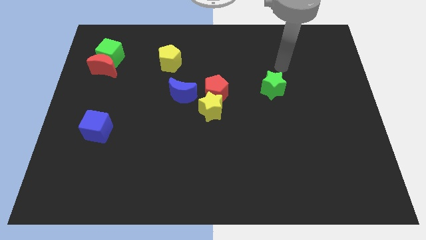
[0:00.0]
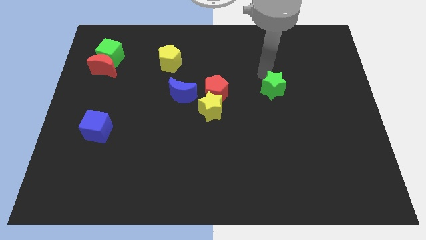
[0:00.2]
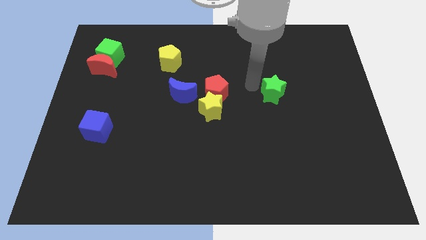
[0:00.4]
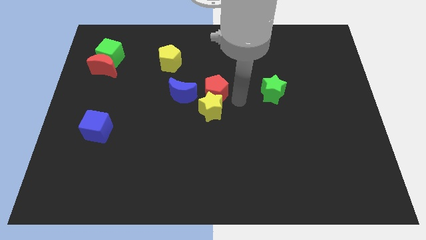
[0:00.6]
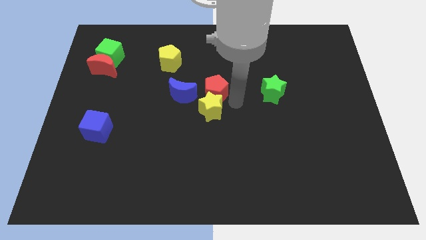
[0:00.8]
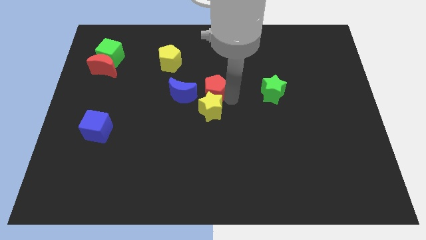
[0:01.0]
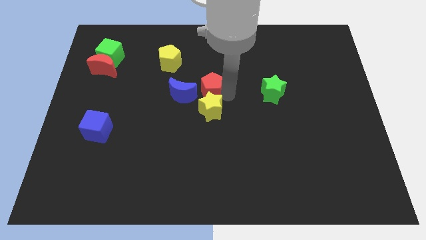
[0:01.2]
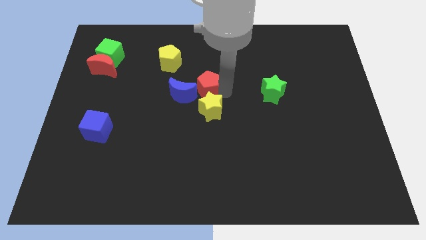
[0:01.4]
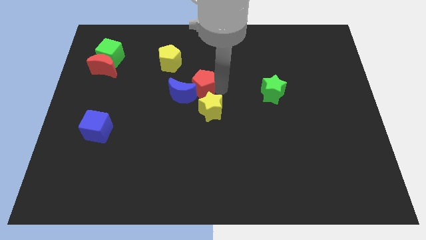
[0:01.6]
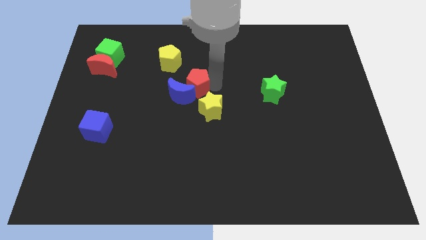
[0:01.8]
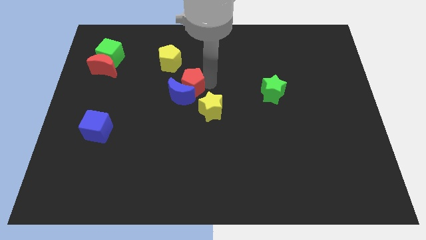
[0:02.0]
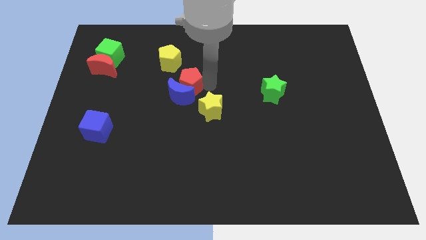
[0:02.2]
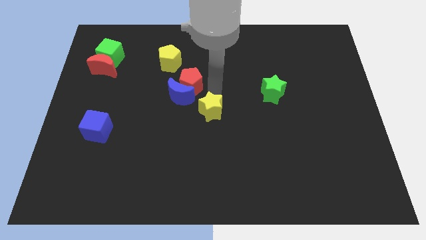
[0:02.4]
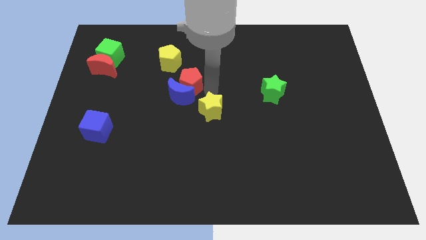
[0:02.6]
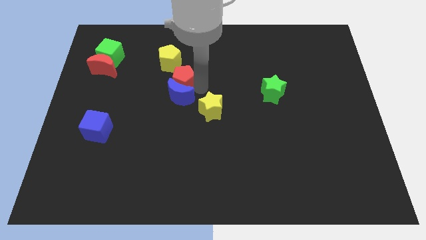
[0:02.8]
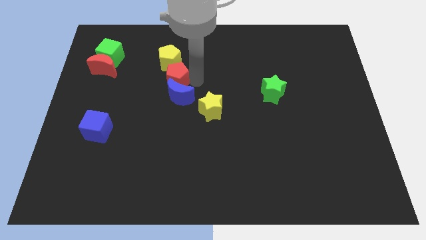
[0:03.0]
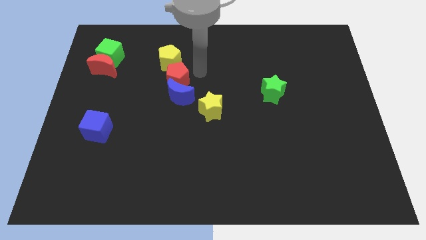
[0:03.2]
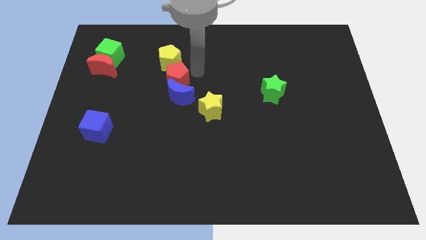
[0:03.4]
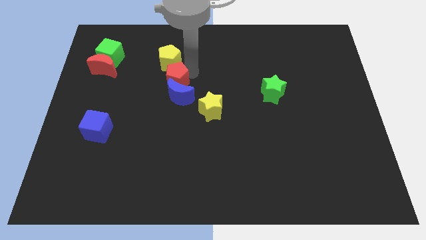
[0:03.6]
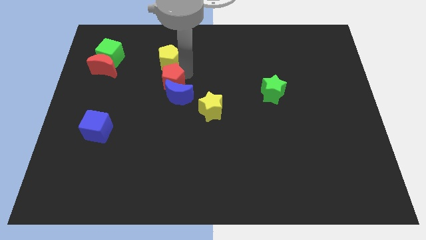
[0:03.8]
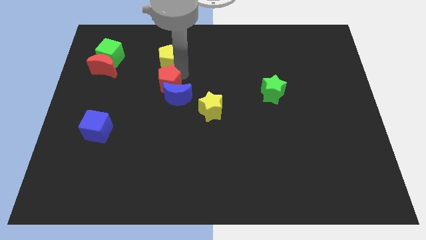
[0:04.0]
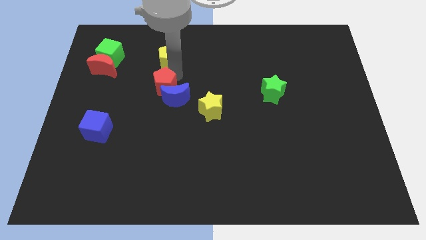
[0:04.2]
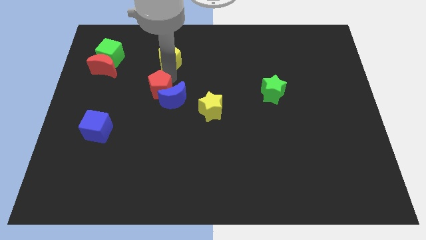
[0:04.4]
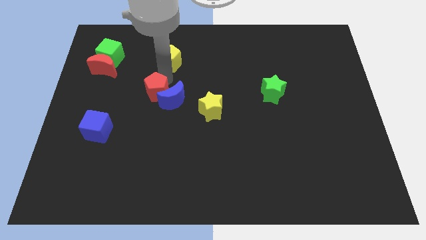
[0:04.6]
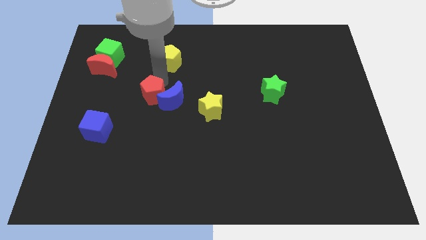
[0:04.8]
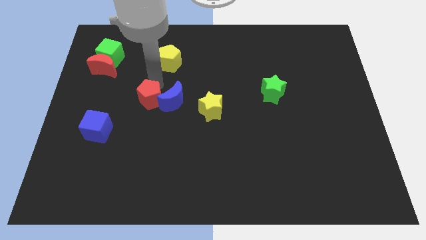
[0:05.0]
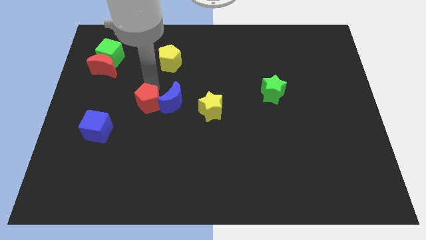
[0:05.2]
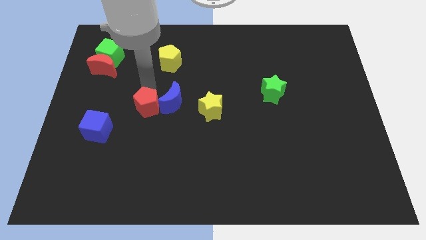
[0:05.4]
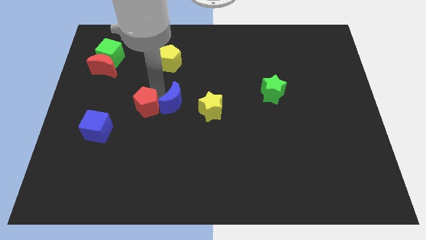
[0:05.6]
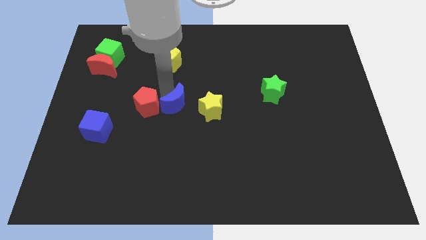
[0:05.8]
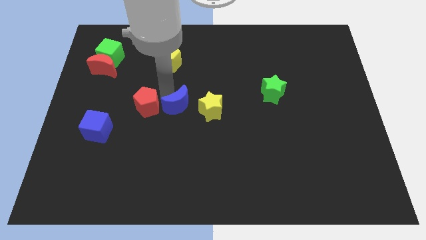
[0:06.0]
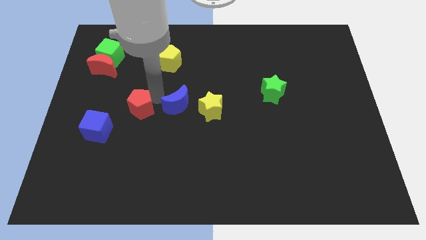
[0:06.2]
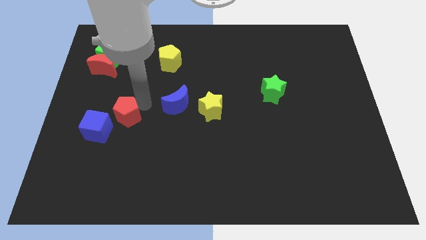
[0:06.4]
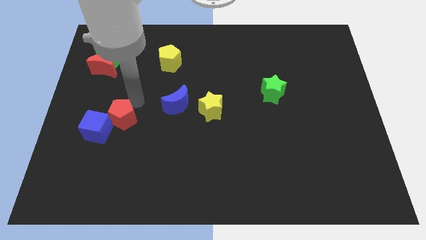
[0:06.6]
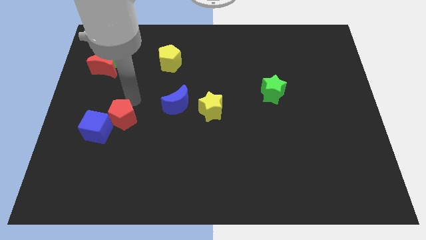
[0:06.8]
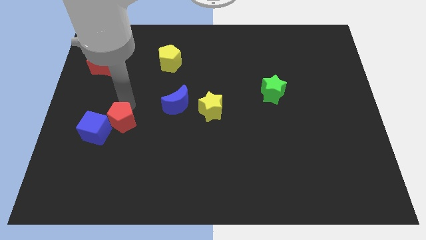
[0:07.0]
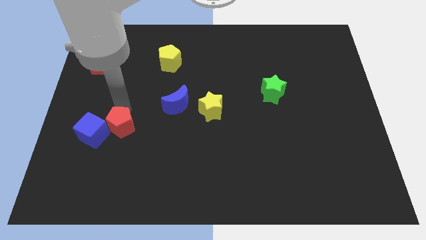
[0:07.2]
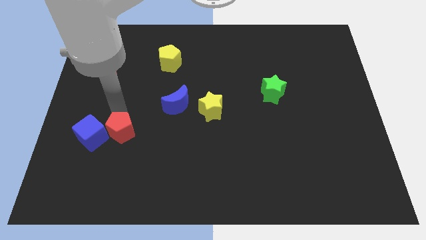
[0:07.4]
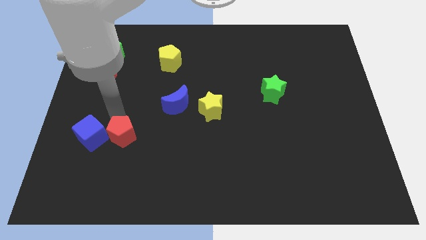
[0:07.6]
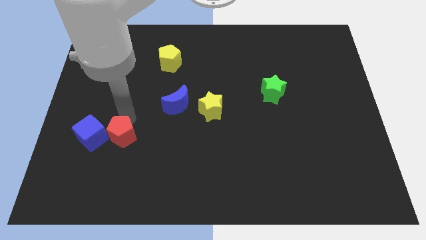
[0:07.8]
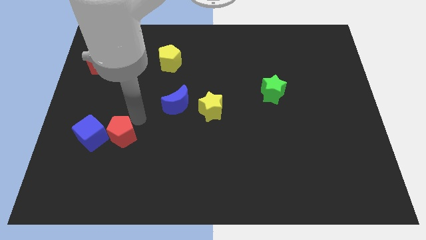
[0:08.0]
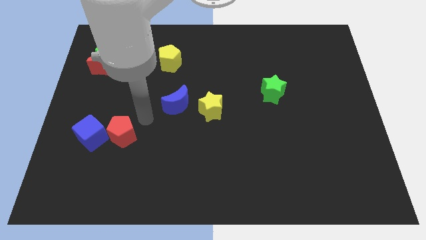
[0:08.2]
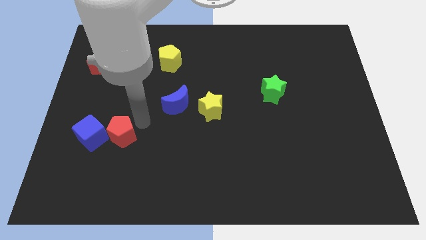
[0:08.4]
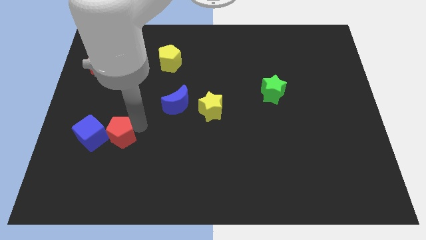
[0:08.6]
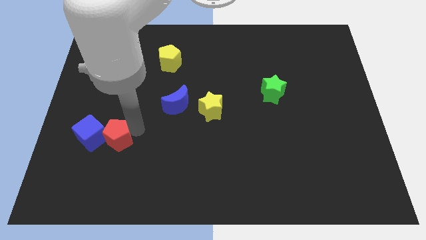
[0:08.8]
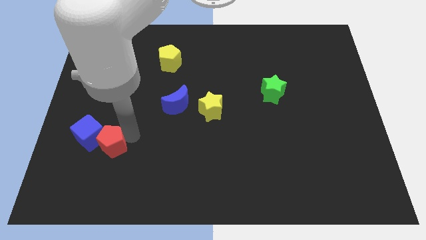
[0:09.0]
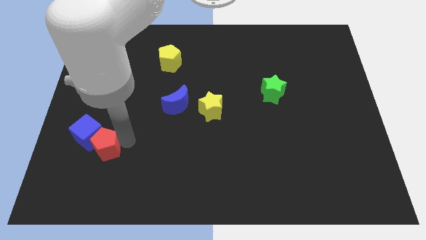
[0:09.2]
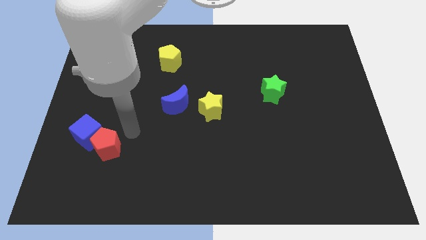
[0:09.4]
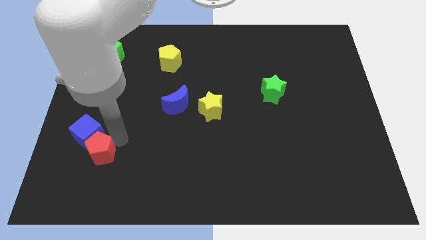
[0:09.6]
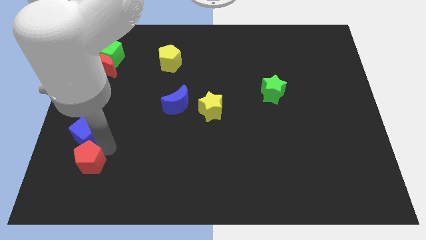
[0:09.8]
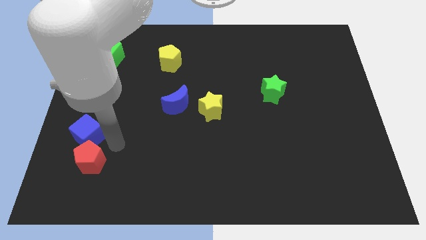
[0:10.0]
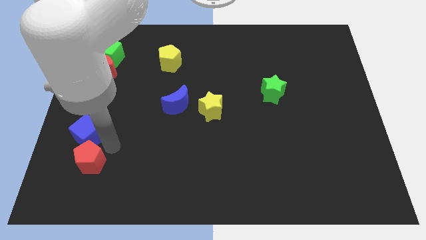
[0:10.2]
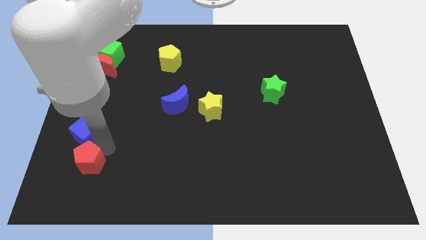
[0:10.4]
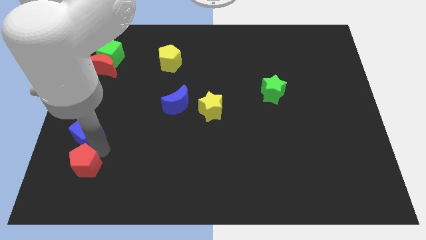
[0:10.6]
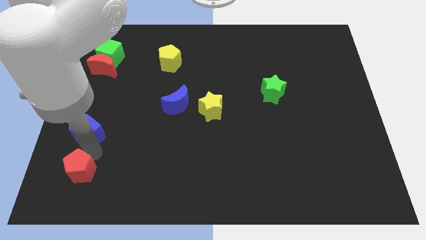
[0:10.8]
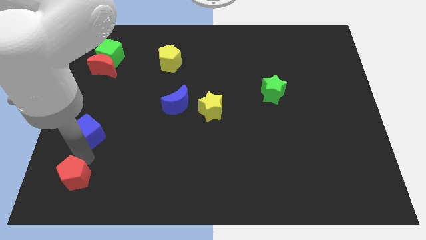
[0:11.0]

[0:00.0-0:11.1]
push the red pentagon to the bottom left corner
